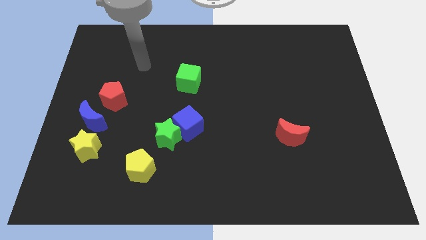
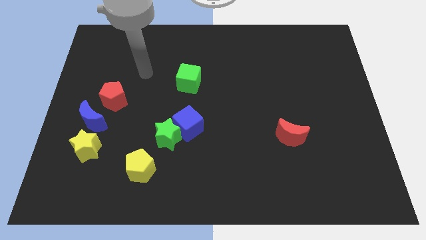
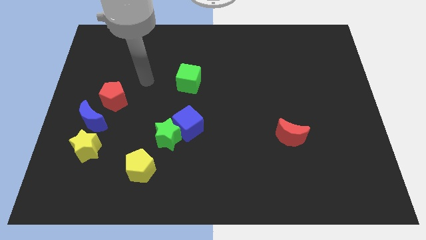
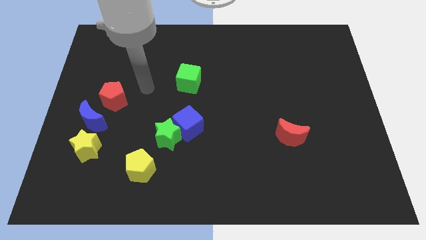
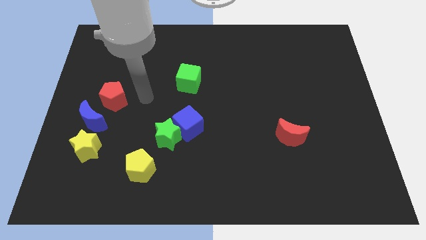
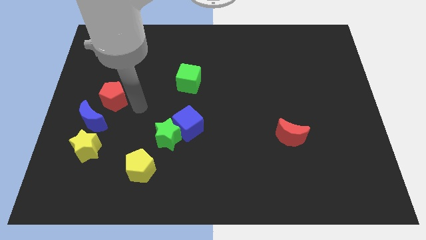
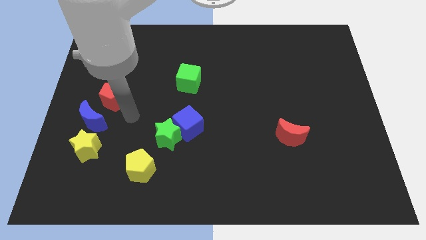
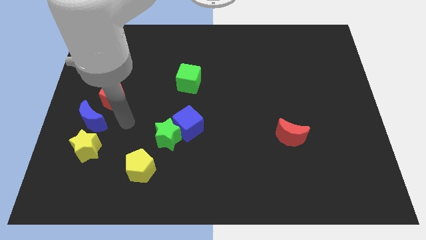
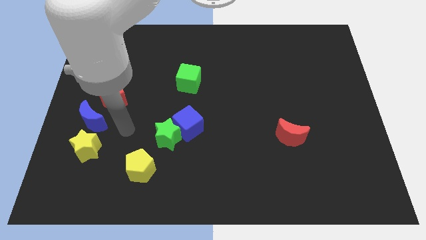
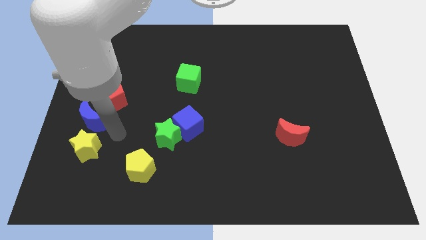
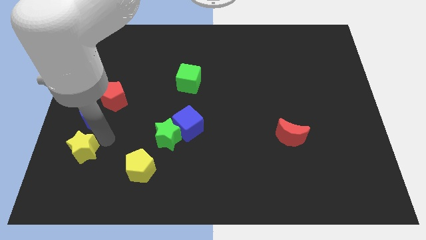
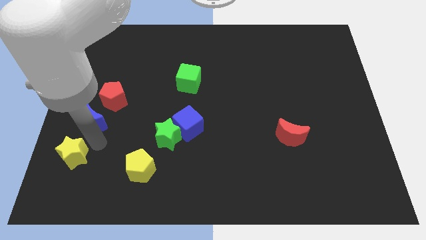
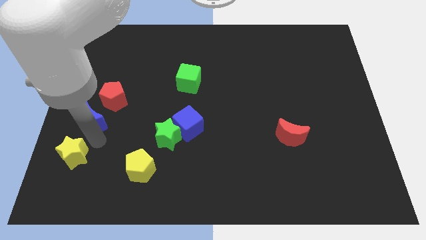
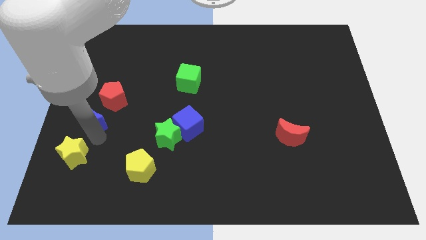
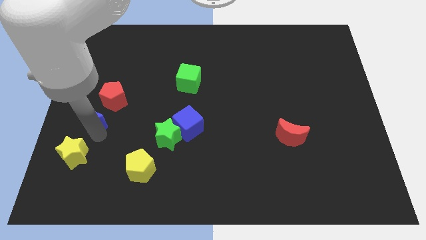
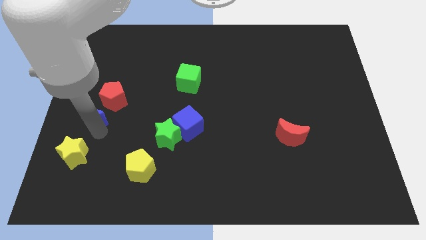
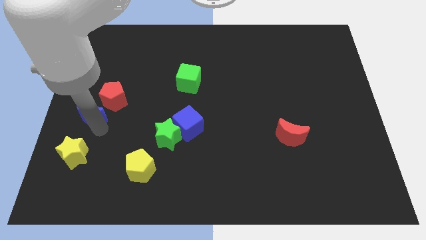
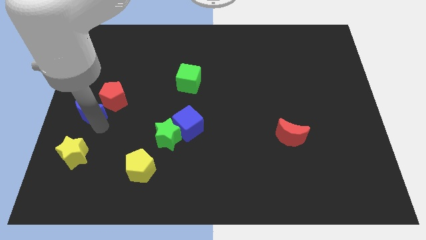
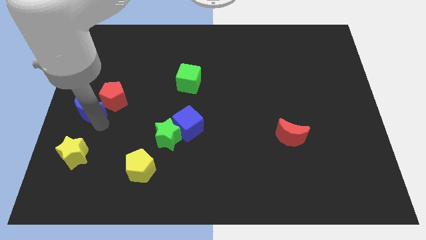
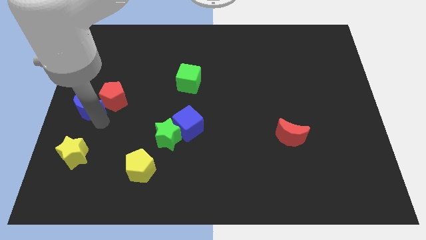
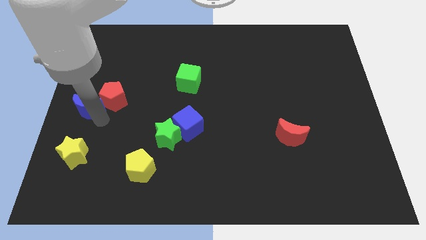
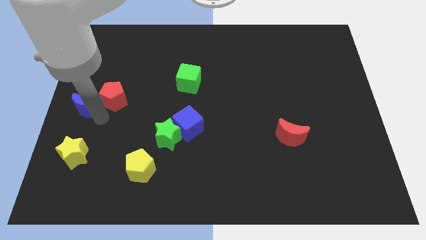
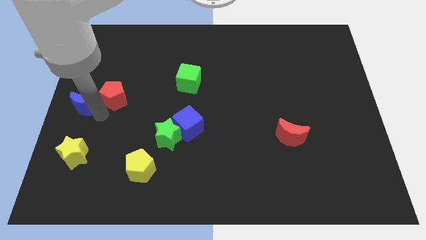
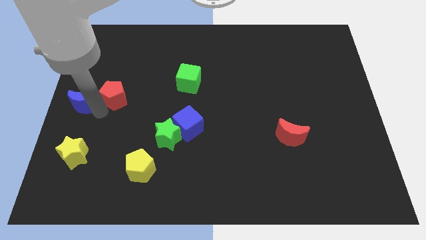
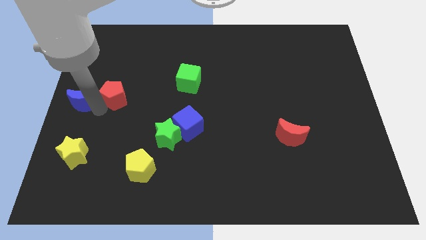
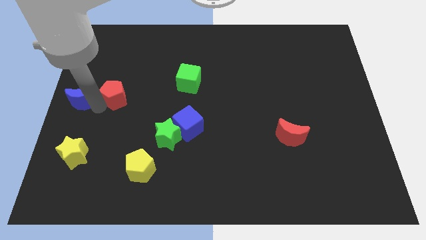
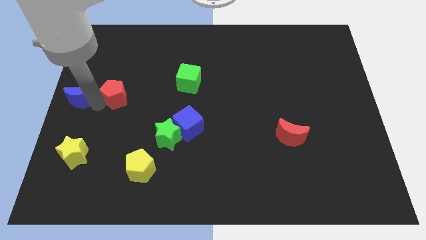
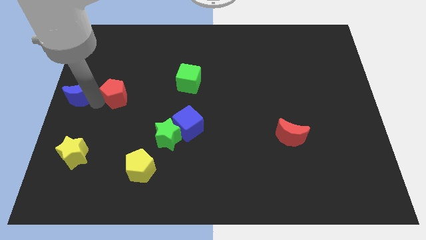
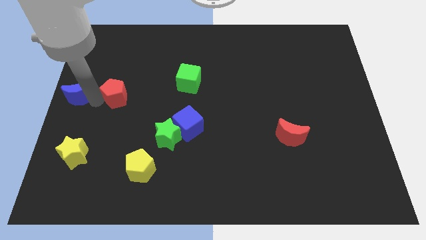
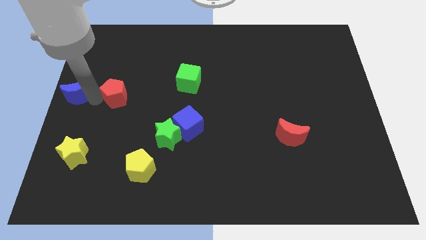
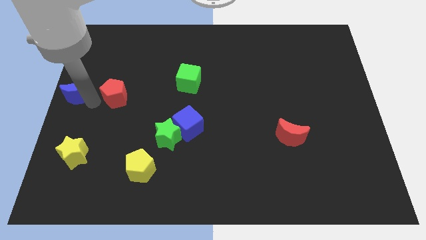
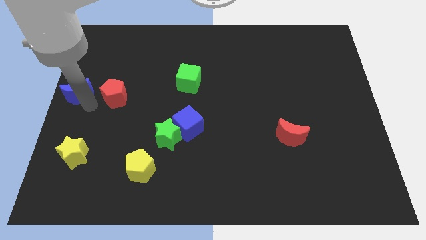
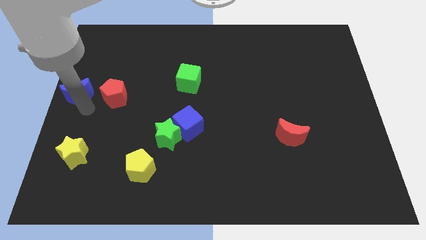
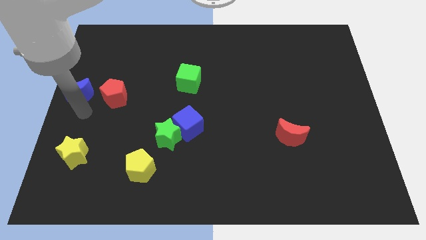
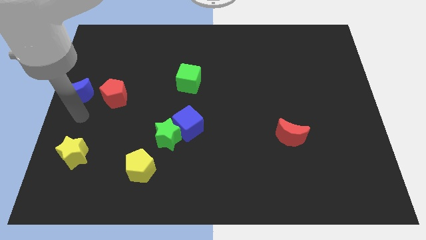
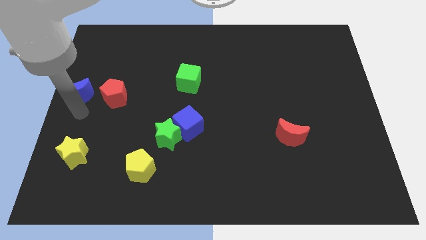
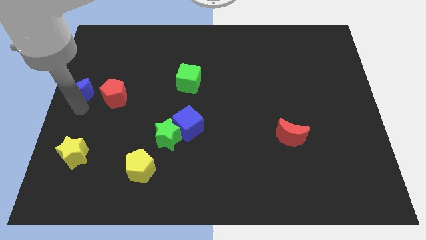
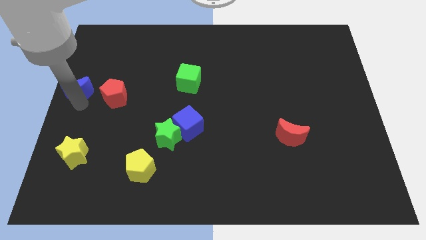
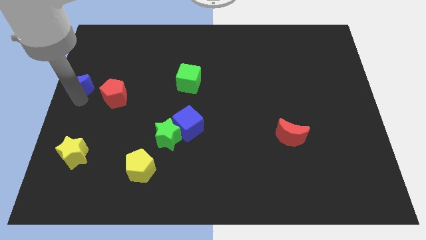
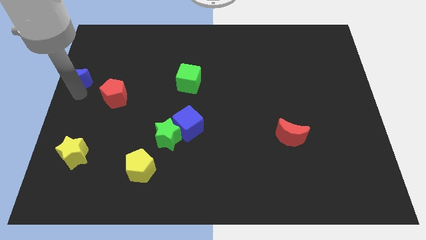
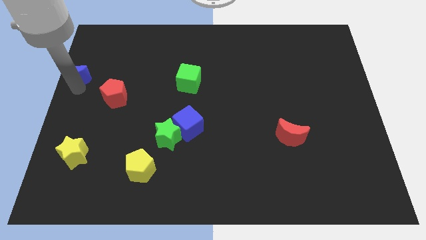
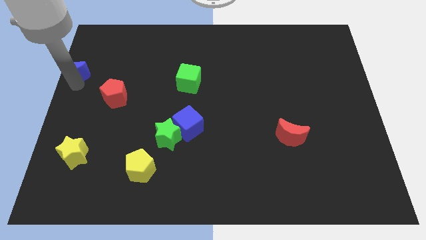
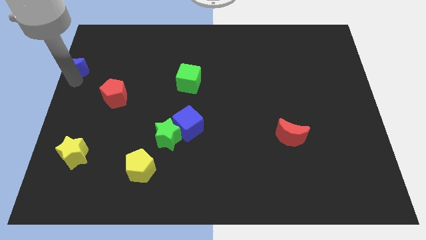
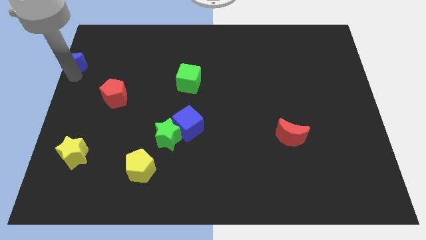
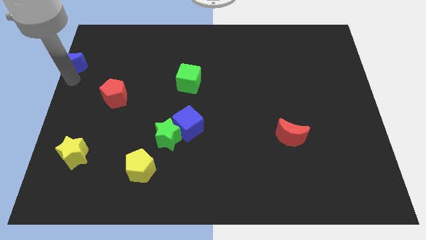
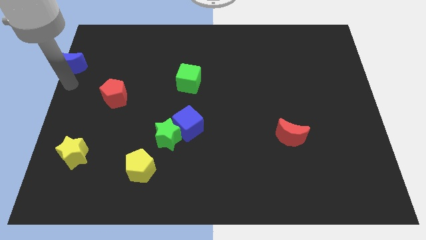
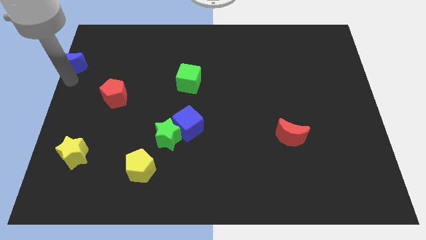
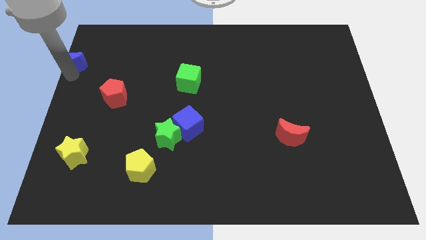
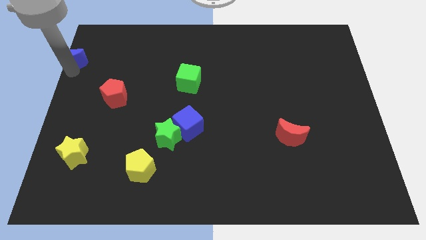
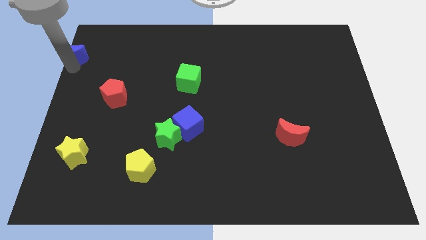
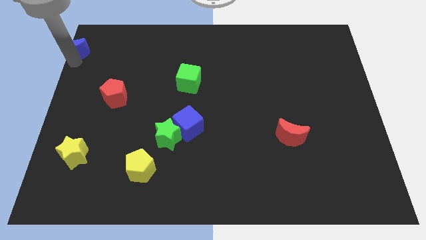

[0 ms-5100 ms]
move the blue moon to the upper left corner

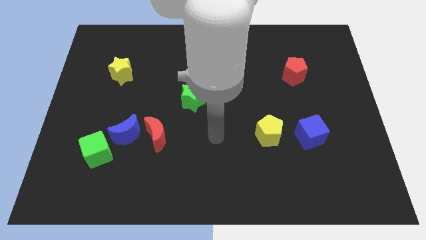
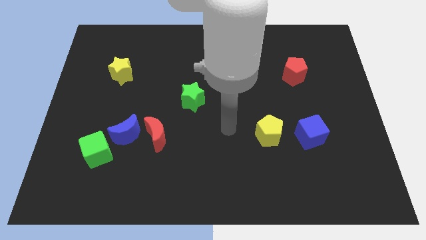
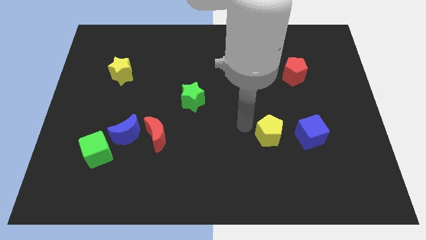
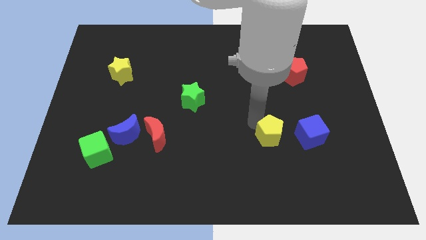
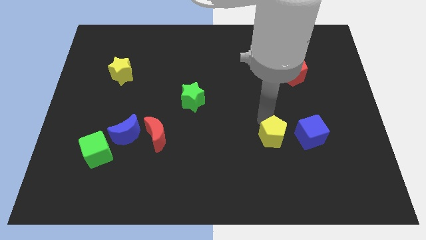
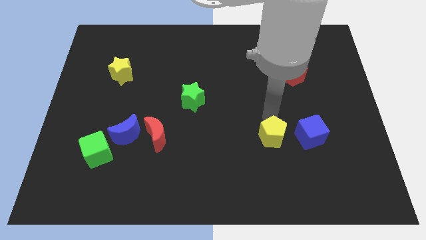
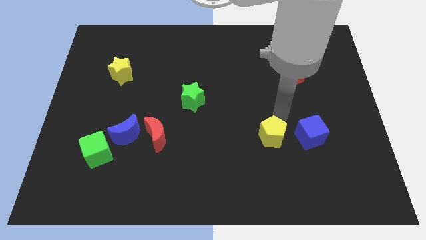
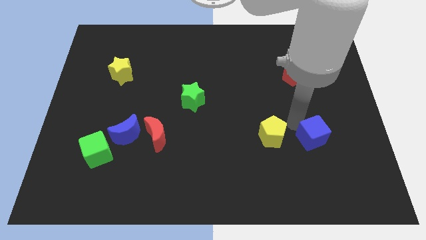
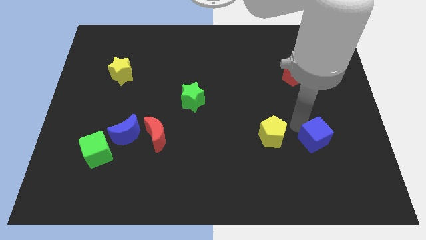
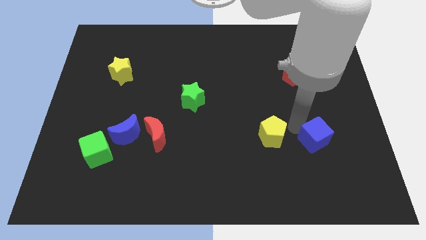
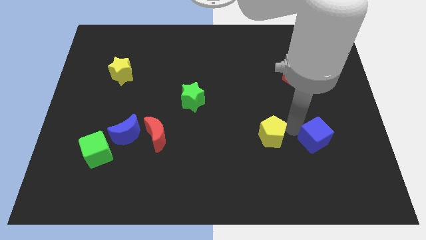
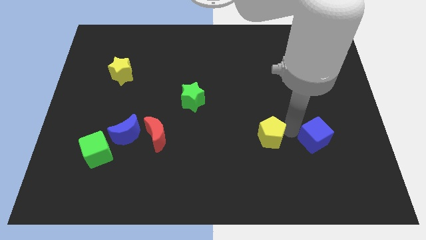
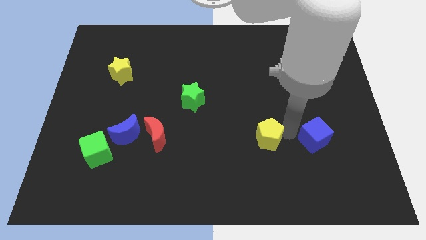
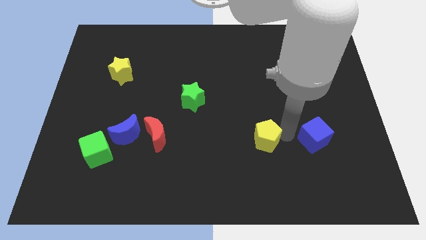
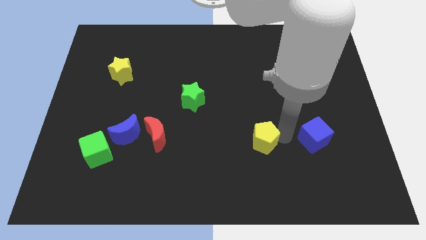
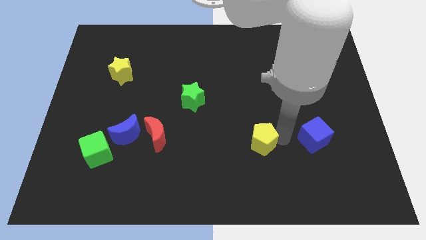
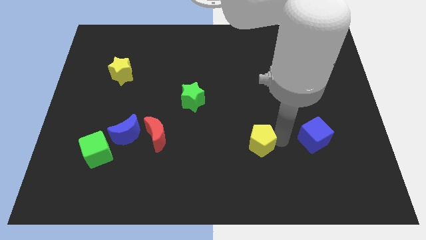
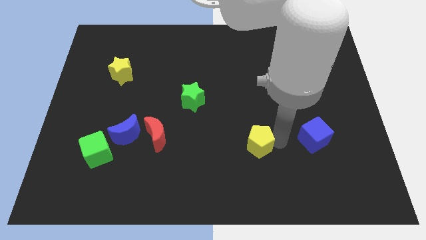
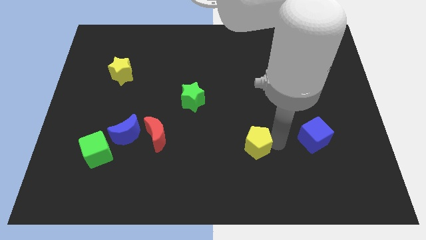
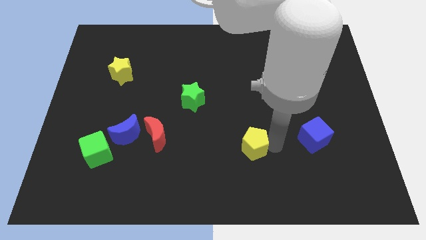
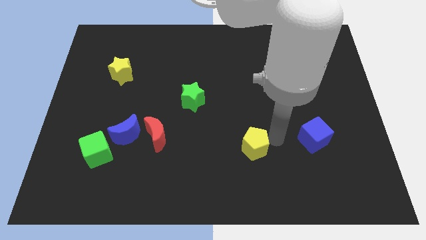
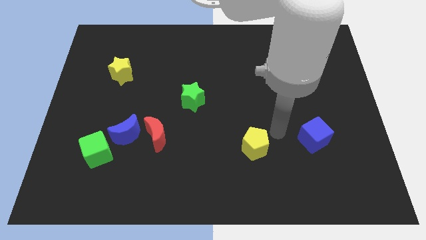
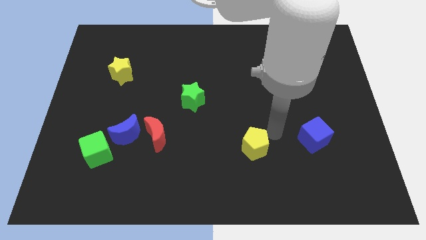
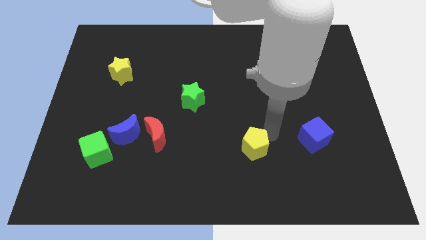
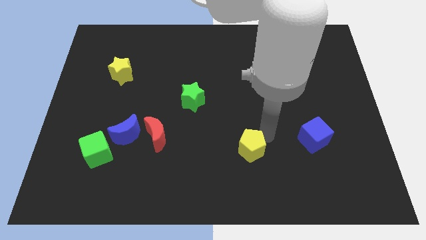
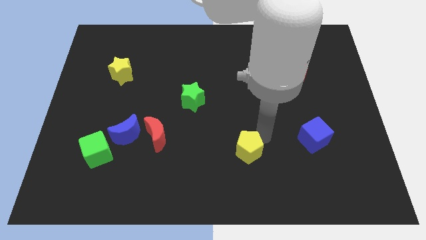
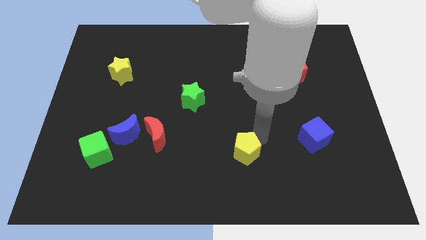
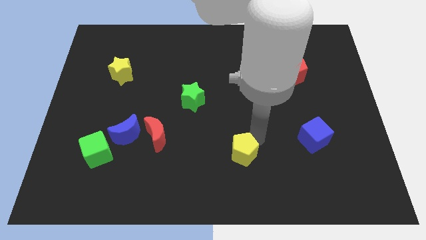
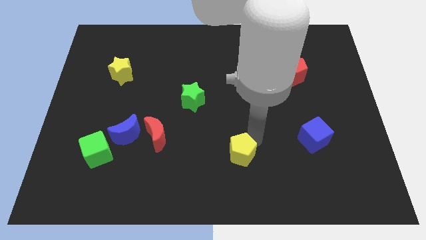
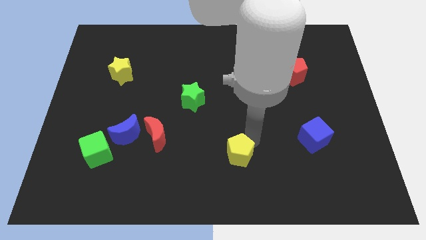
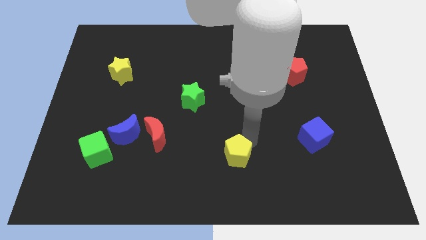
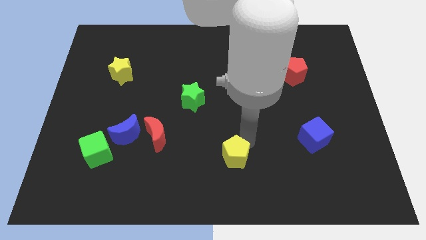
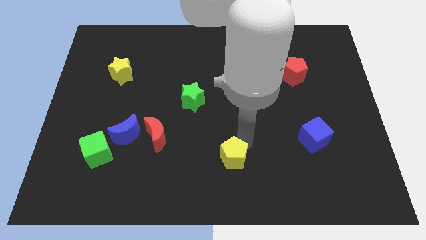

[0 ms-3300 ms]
move the yellow pentagon to the bottom
